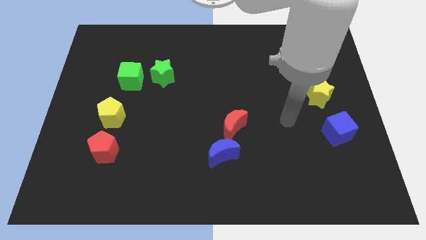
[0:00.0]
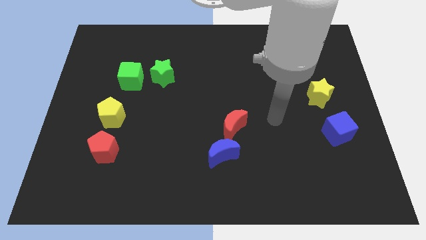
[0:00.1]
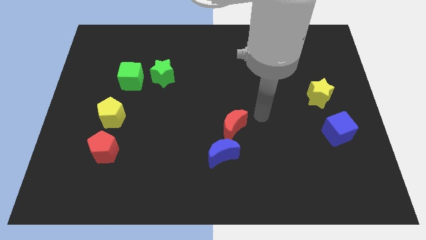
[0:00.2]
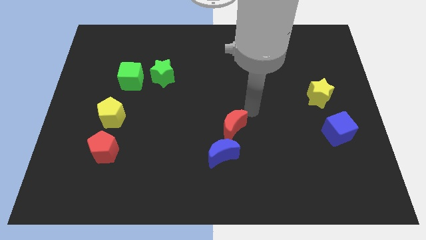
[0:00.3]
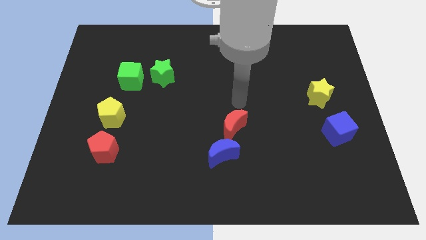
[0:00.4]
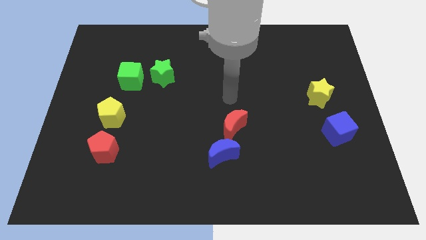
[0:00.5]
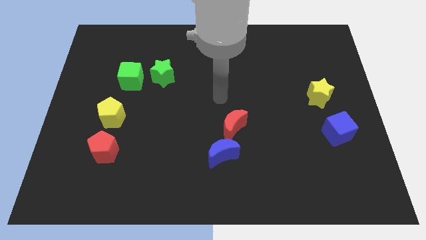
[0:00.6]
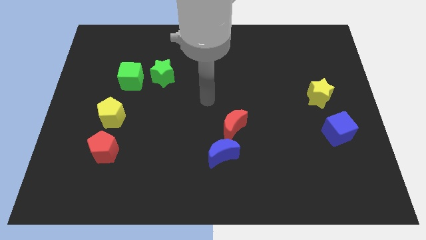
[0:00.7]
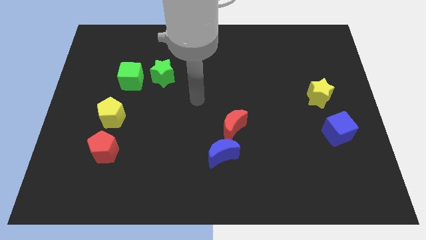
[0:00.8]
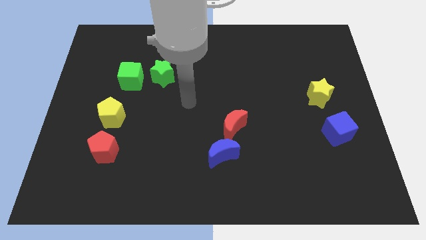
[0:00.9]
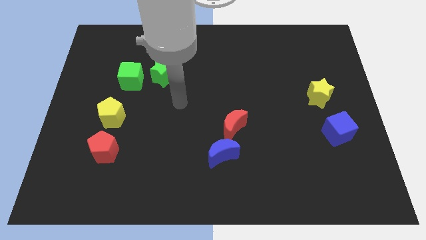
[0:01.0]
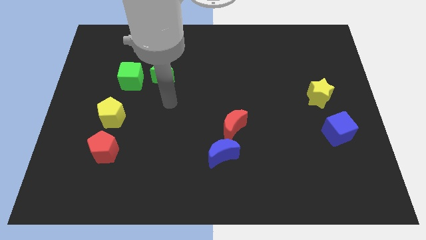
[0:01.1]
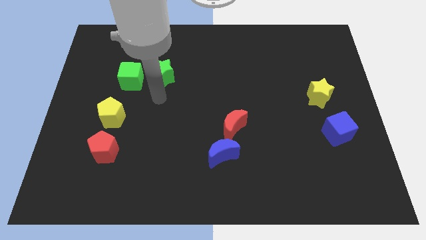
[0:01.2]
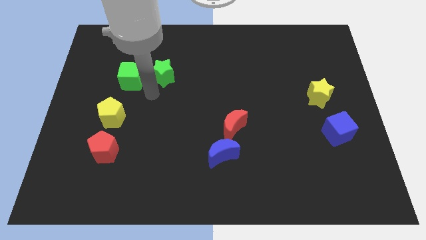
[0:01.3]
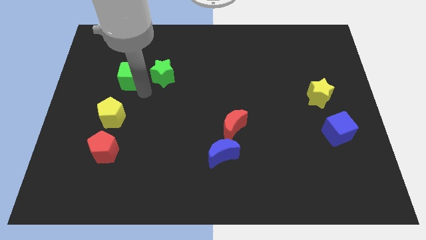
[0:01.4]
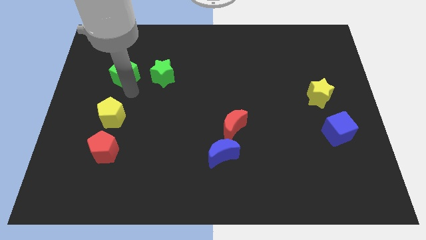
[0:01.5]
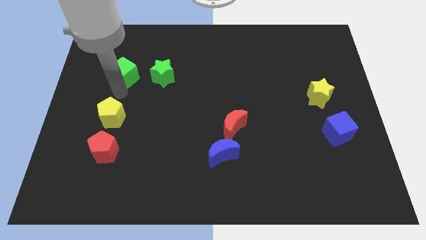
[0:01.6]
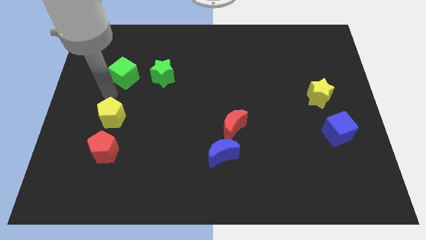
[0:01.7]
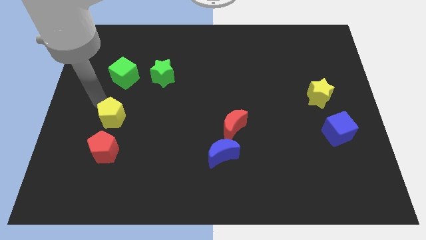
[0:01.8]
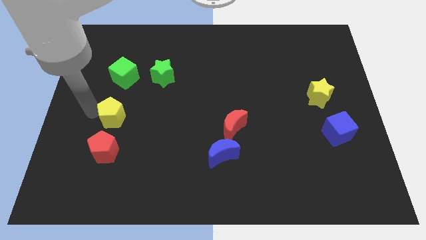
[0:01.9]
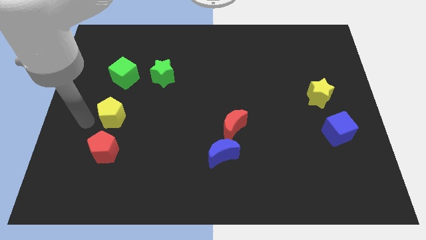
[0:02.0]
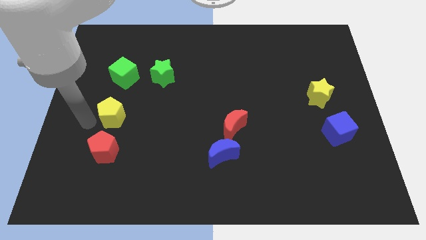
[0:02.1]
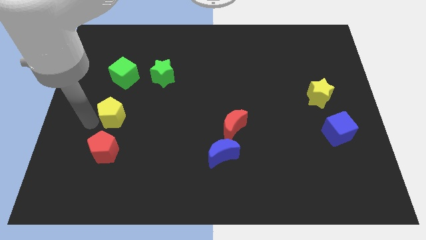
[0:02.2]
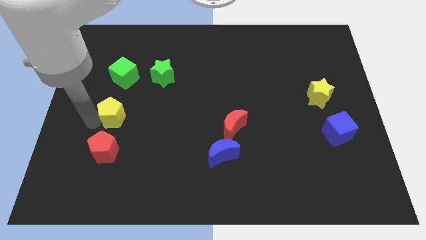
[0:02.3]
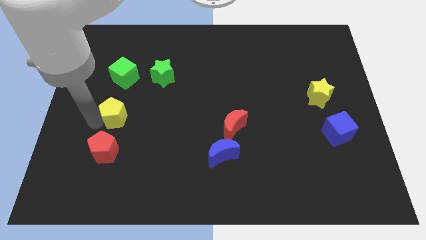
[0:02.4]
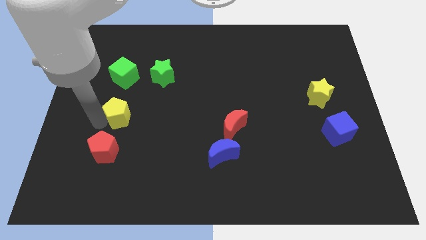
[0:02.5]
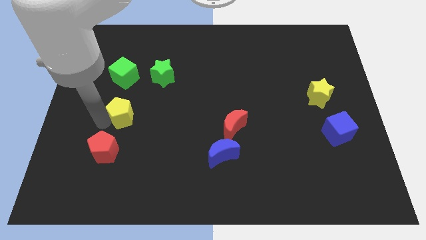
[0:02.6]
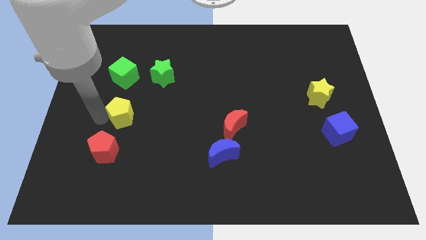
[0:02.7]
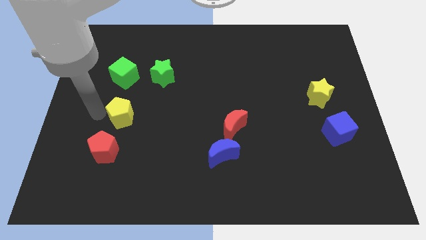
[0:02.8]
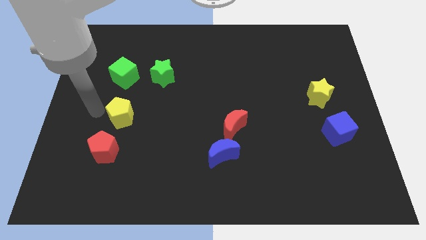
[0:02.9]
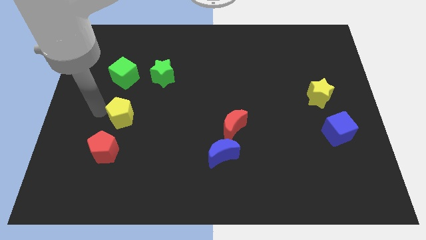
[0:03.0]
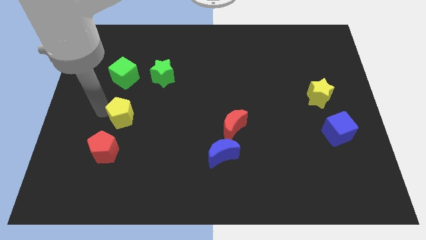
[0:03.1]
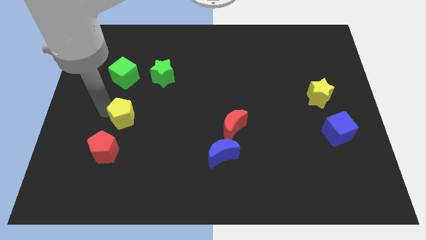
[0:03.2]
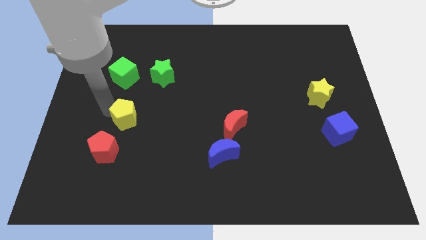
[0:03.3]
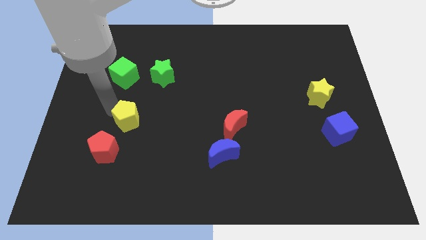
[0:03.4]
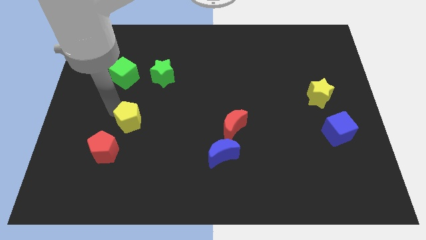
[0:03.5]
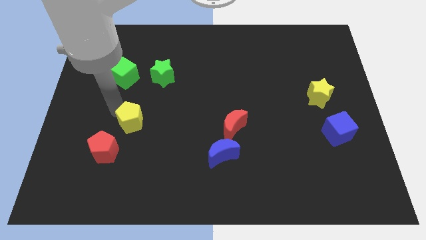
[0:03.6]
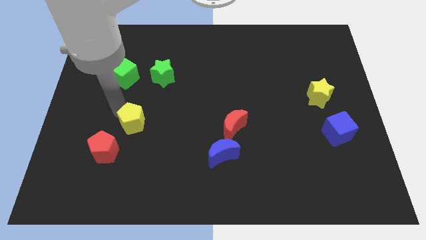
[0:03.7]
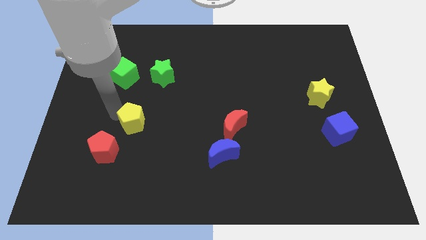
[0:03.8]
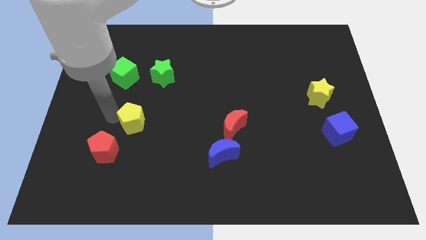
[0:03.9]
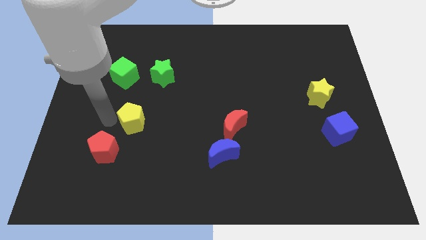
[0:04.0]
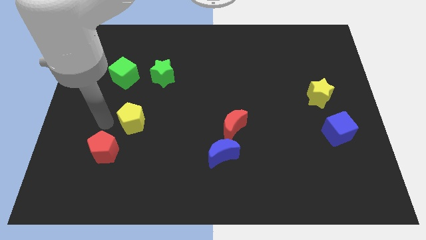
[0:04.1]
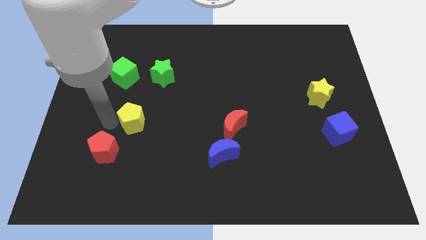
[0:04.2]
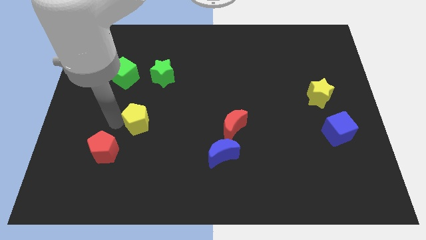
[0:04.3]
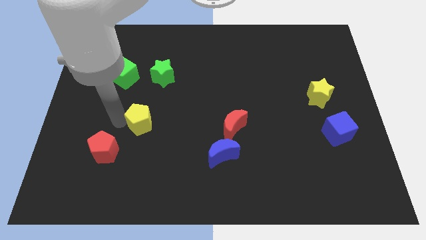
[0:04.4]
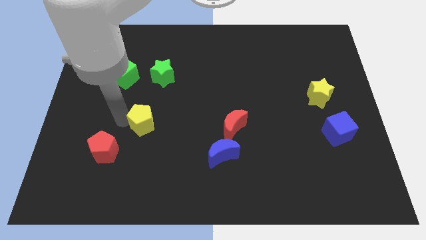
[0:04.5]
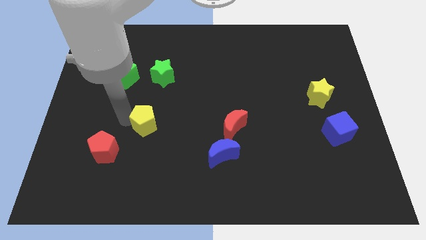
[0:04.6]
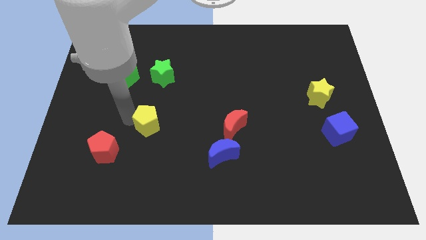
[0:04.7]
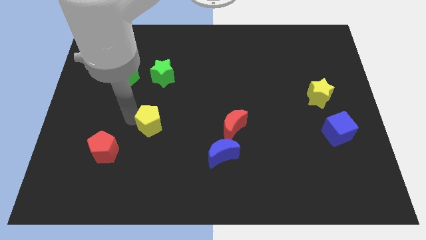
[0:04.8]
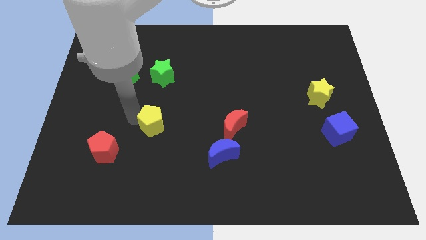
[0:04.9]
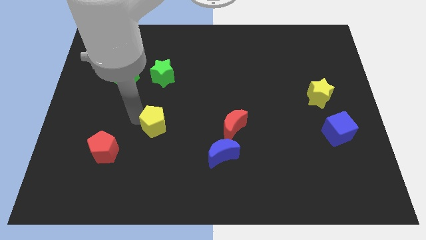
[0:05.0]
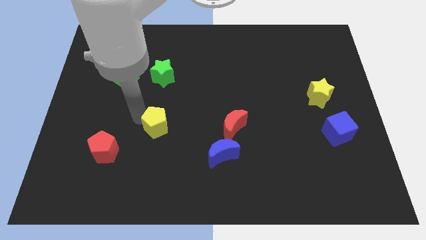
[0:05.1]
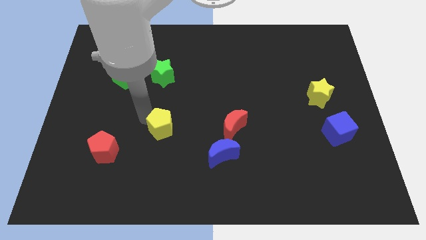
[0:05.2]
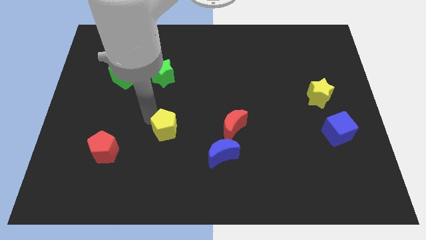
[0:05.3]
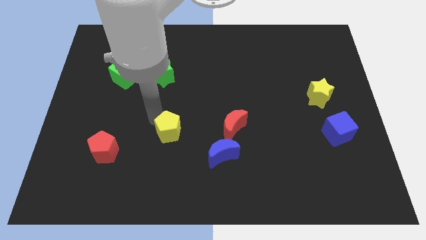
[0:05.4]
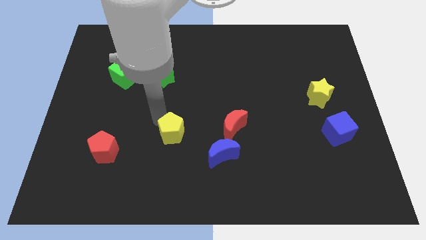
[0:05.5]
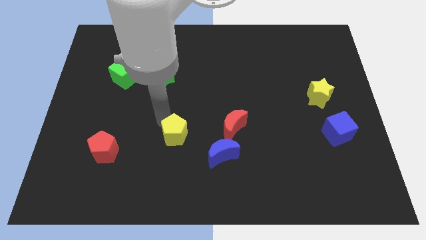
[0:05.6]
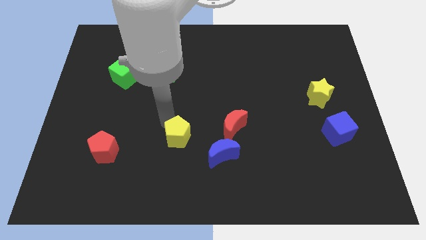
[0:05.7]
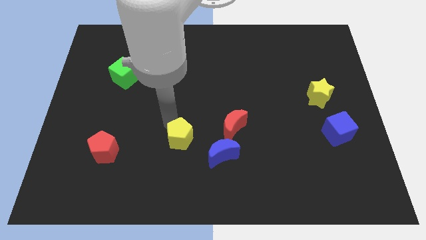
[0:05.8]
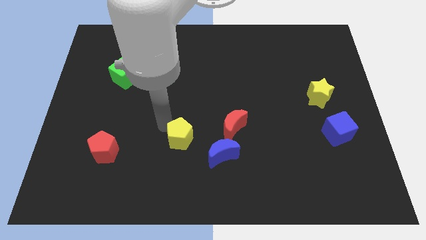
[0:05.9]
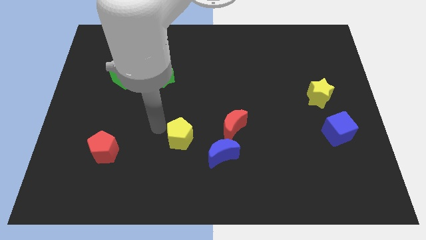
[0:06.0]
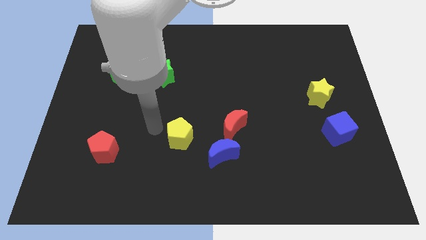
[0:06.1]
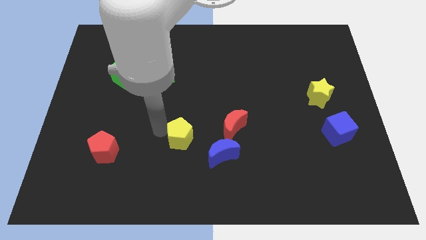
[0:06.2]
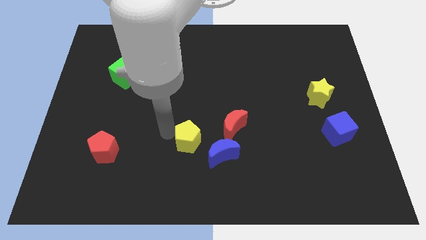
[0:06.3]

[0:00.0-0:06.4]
move the yellow pentagon diagonally down and to the left of the red moon

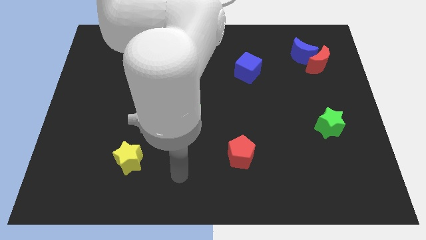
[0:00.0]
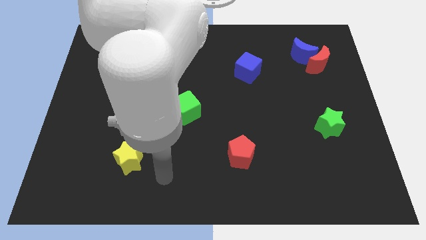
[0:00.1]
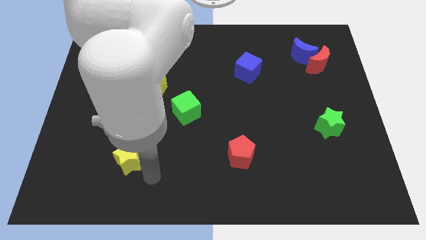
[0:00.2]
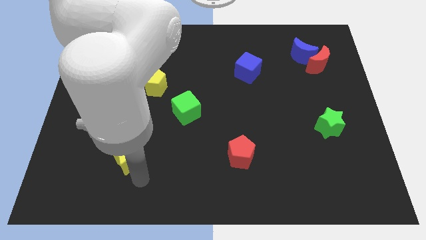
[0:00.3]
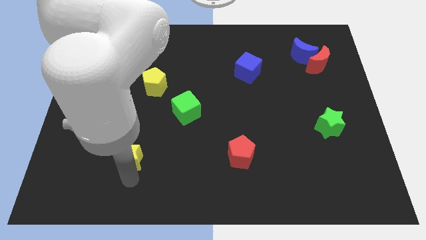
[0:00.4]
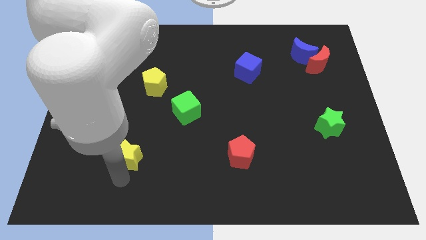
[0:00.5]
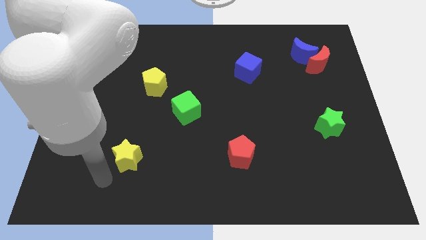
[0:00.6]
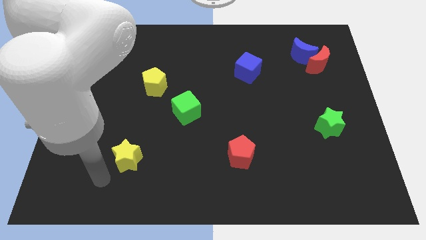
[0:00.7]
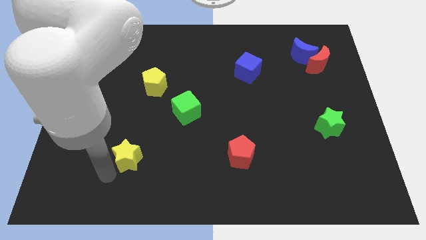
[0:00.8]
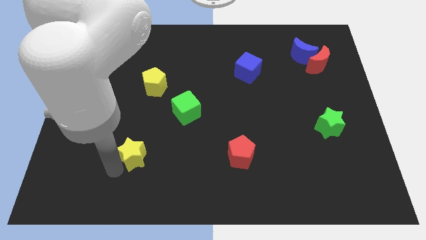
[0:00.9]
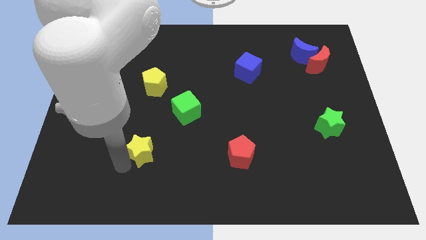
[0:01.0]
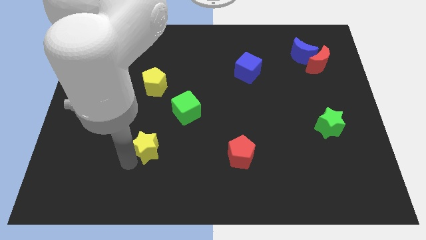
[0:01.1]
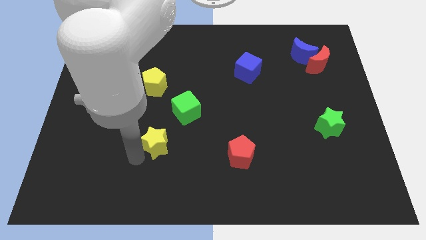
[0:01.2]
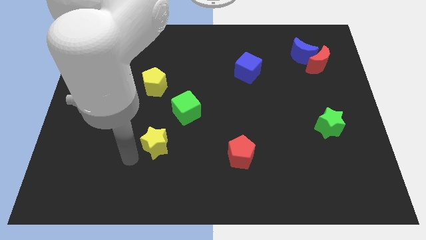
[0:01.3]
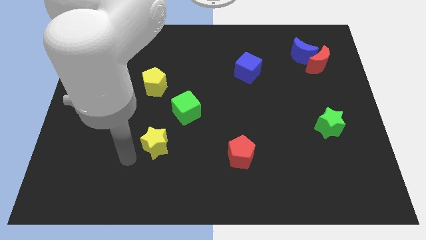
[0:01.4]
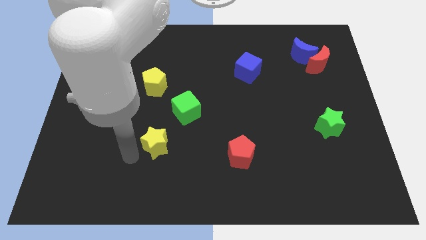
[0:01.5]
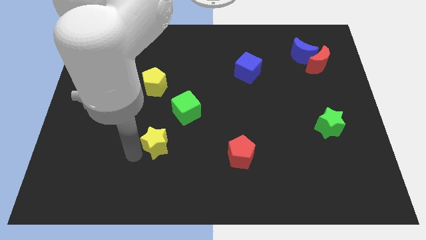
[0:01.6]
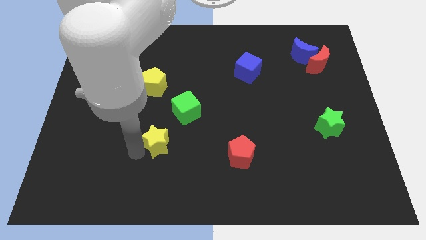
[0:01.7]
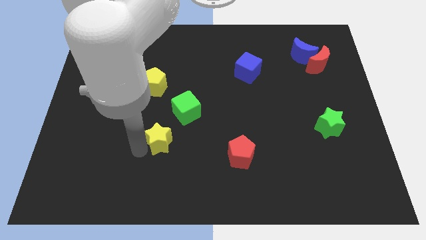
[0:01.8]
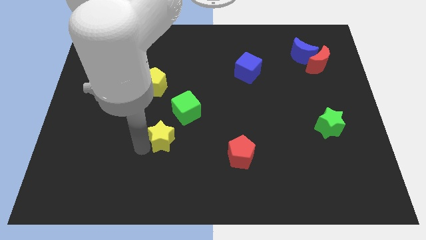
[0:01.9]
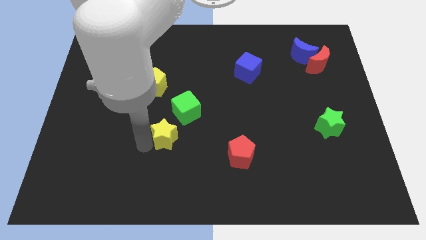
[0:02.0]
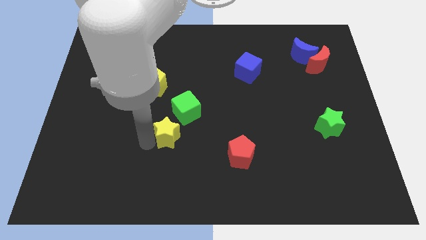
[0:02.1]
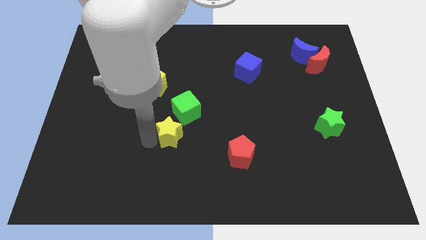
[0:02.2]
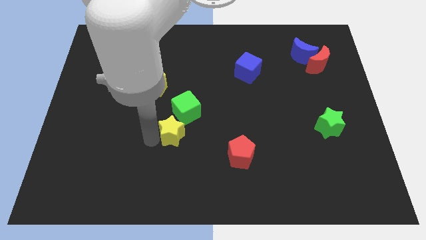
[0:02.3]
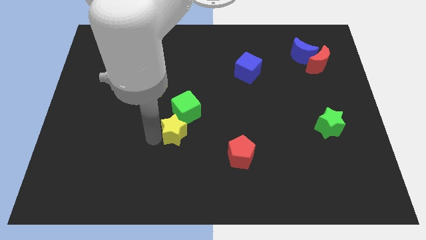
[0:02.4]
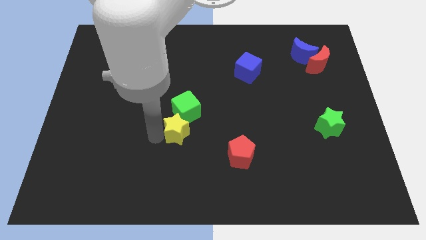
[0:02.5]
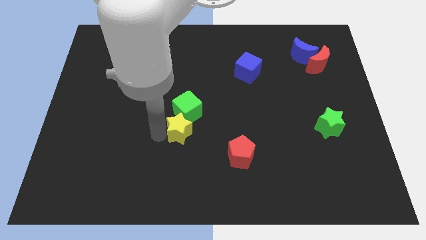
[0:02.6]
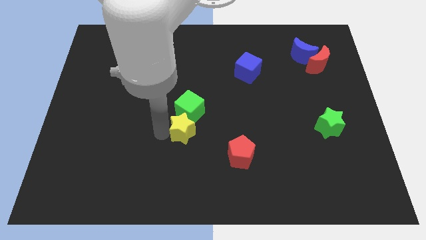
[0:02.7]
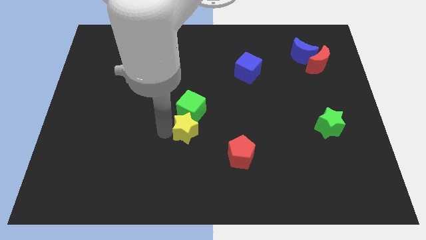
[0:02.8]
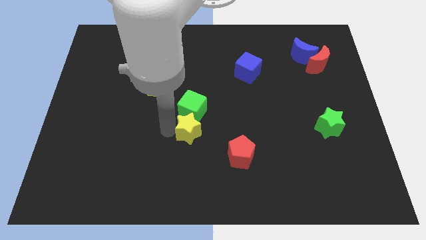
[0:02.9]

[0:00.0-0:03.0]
put the yellow star to the bottom right of the green cube
